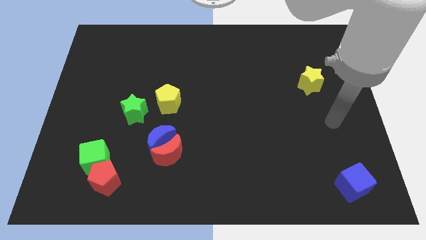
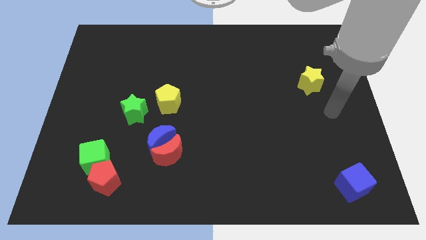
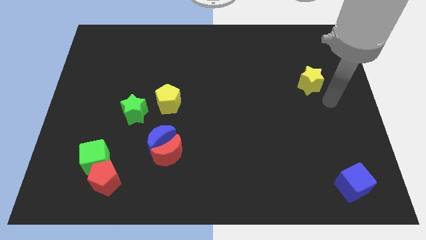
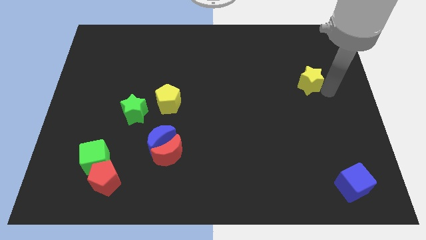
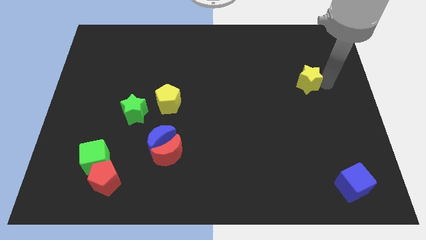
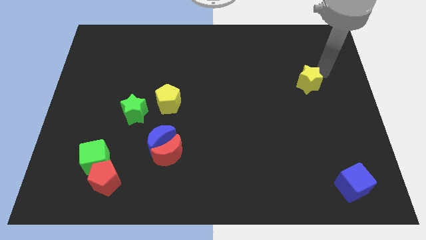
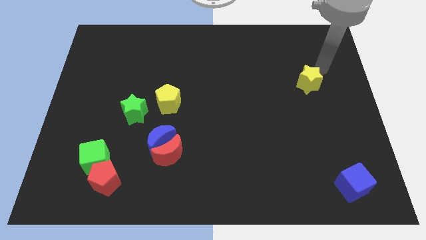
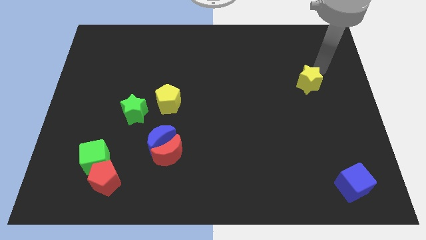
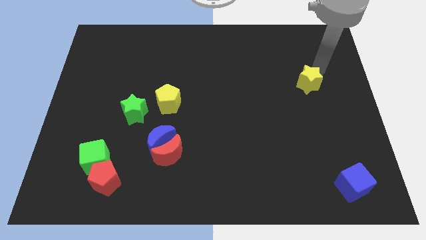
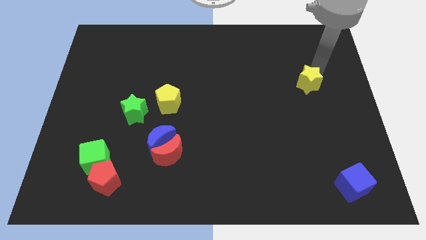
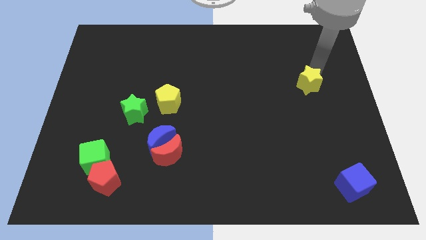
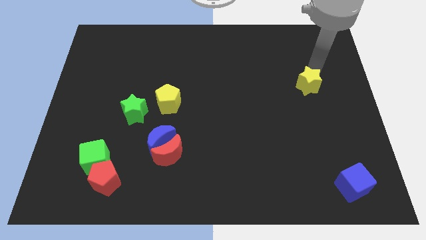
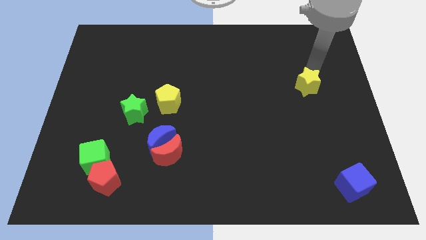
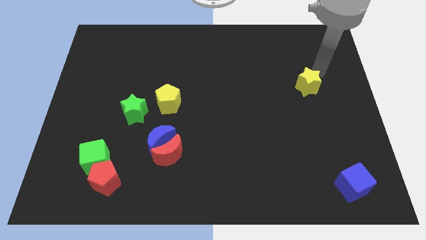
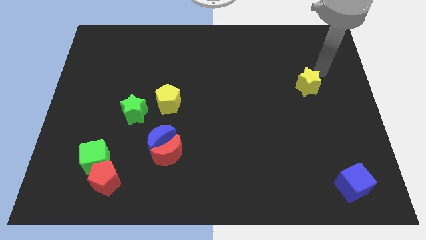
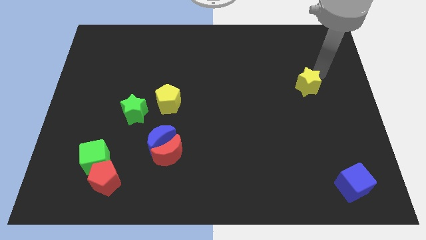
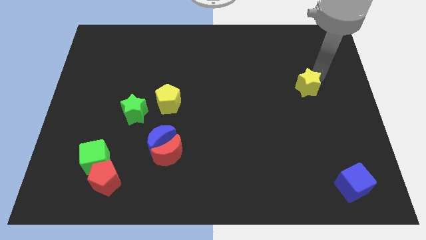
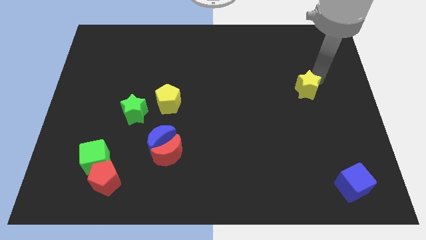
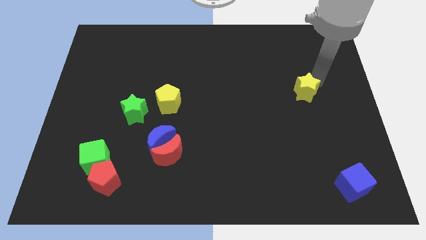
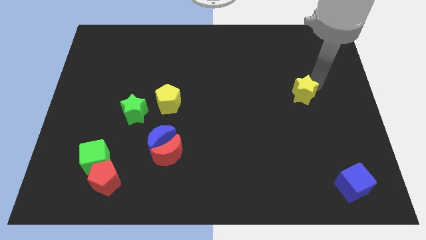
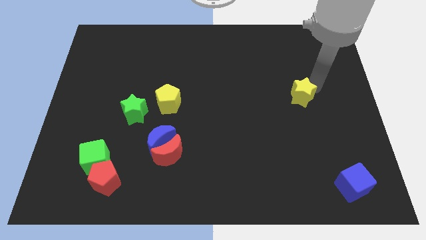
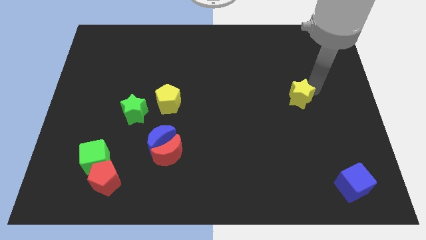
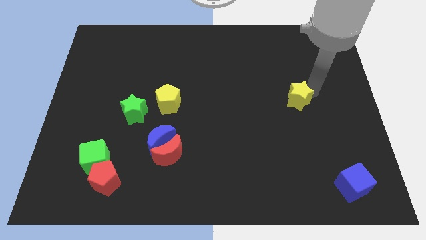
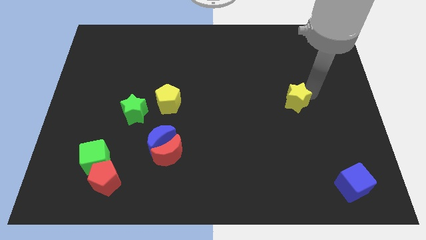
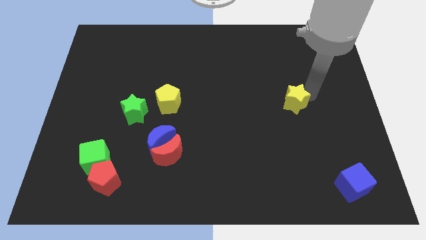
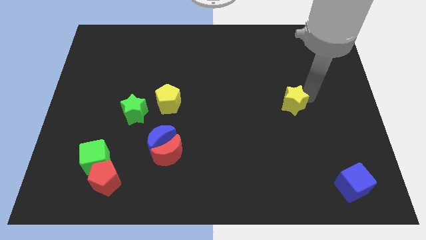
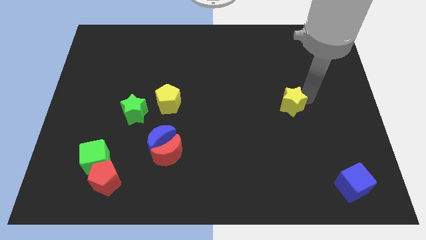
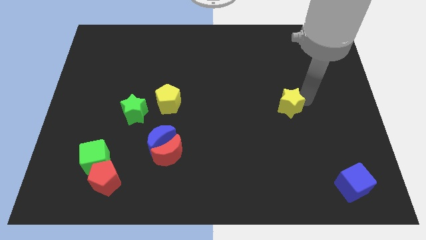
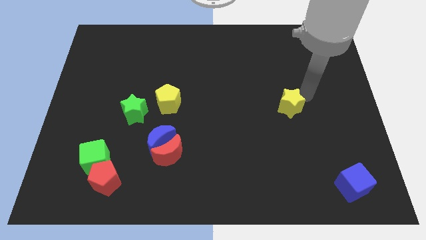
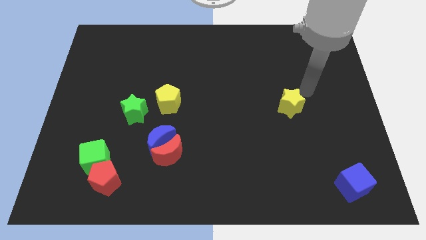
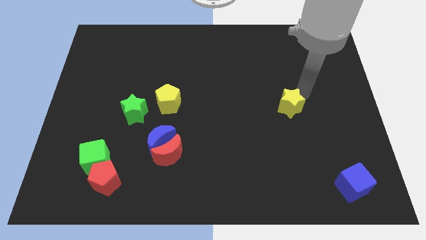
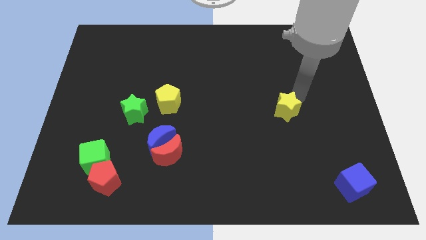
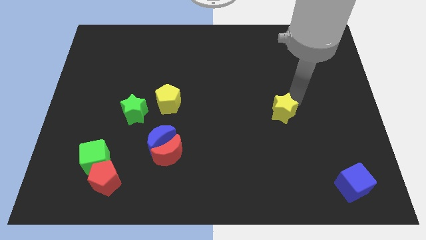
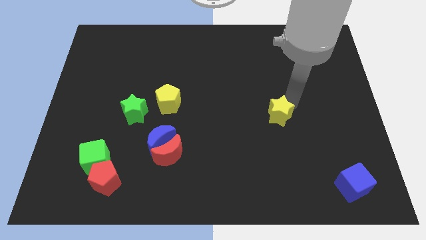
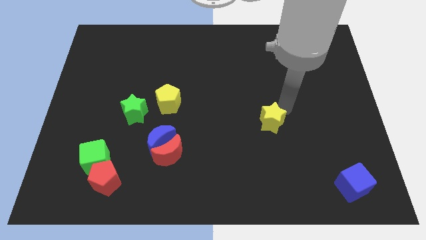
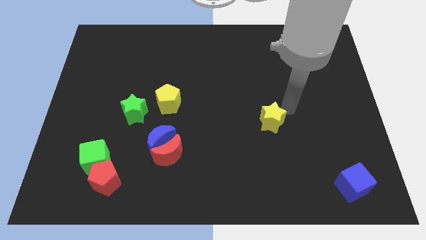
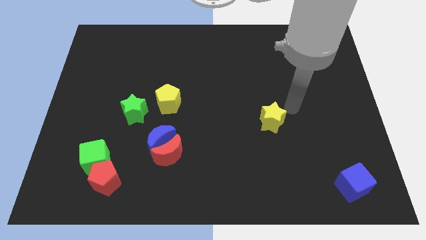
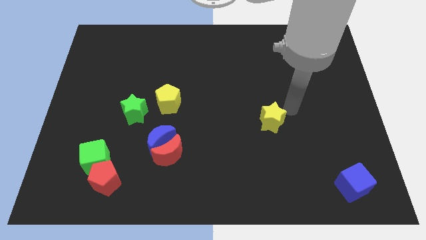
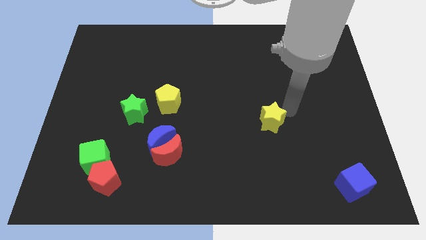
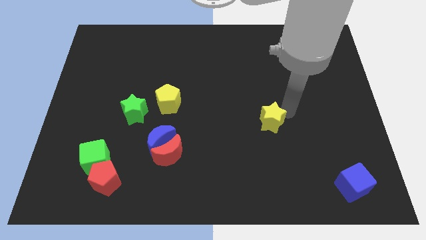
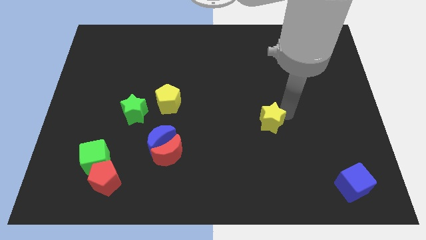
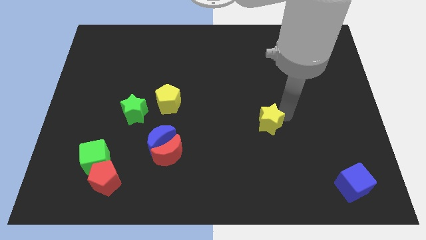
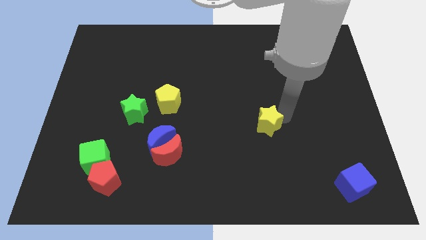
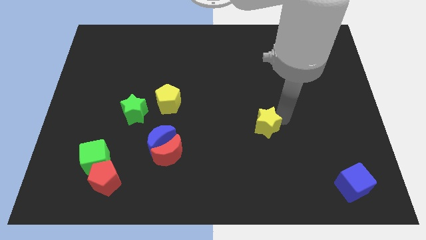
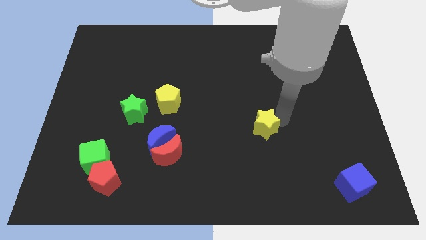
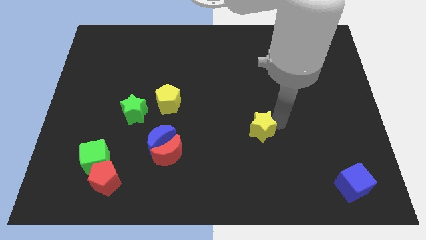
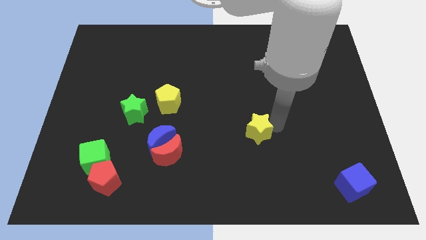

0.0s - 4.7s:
slide the yellow star diagonally downwards and to the left

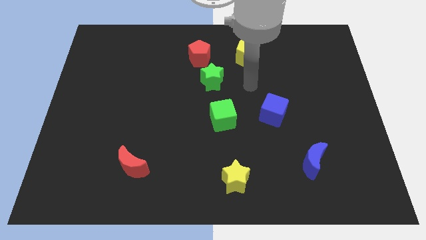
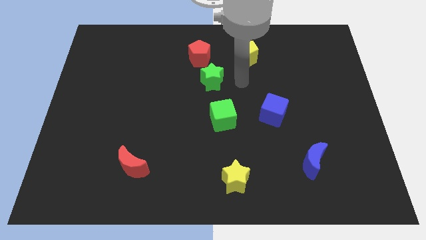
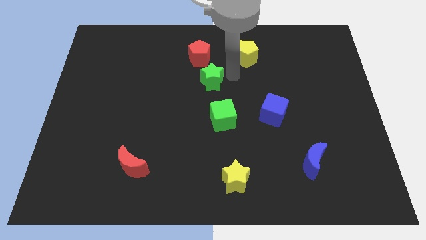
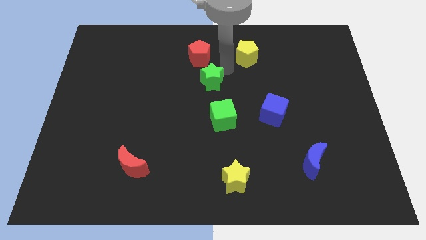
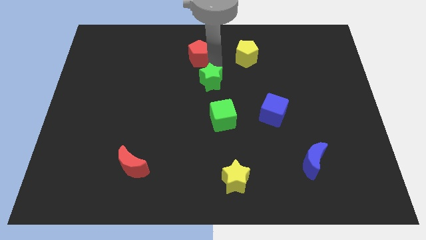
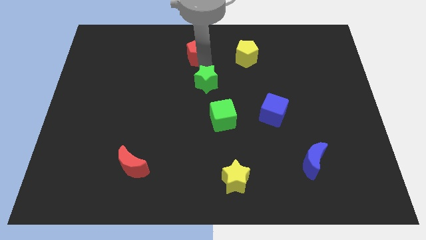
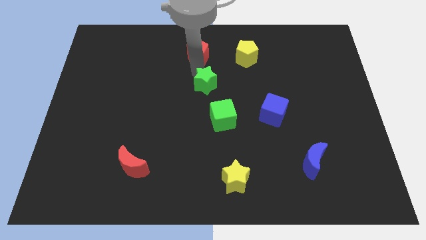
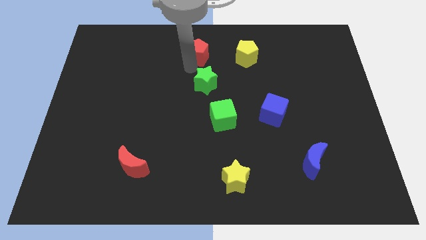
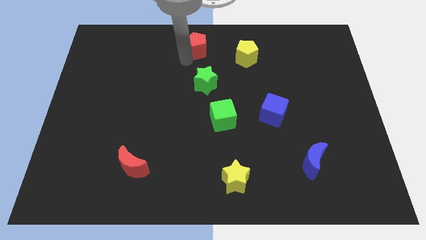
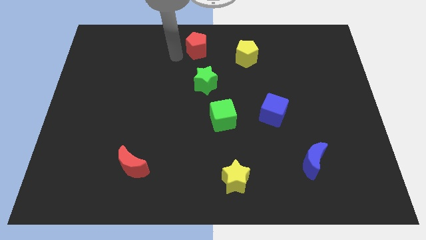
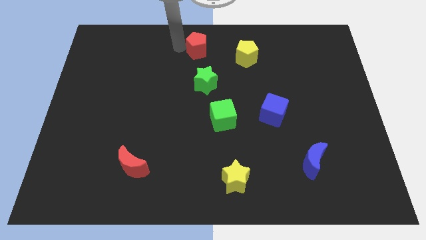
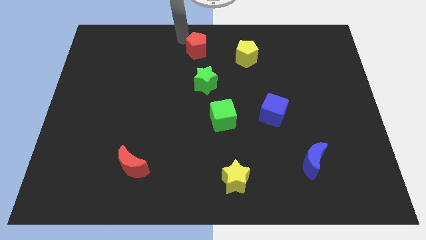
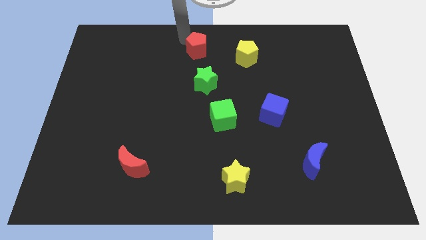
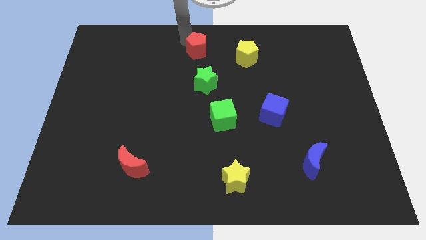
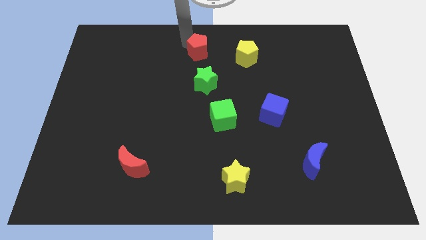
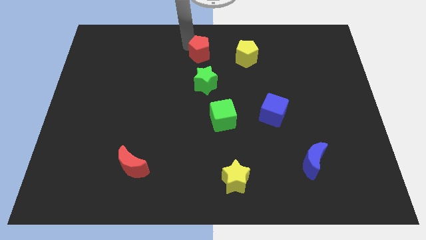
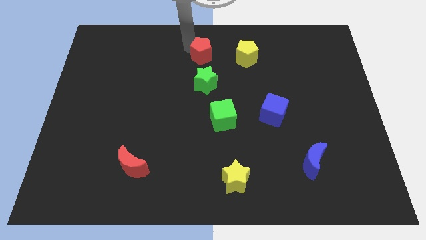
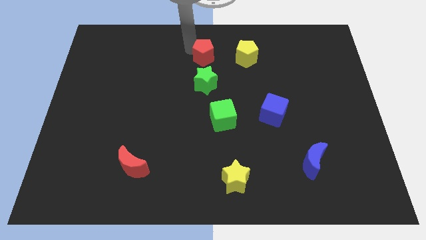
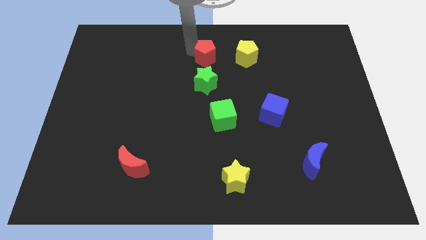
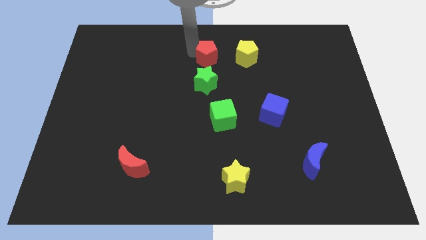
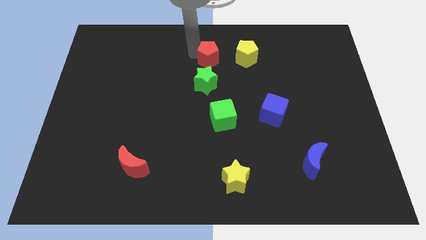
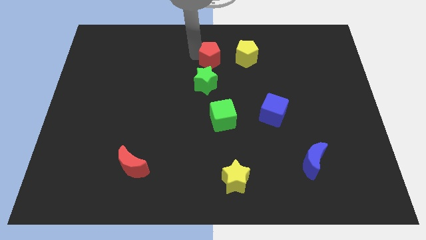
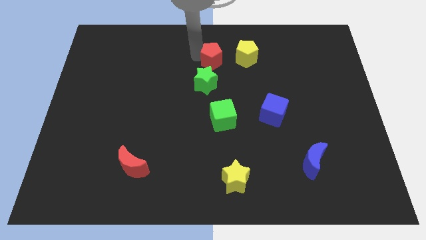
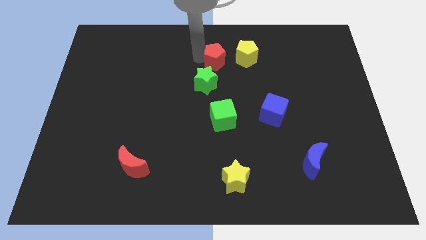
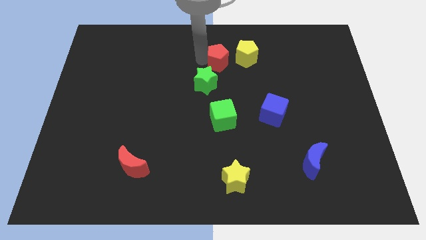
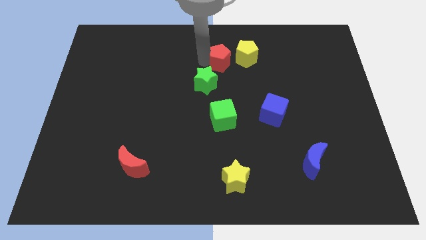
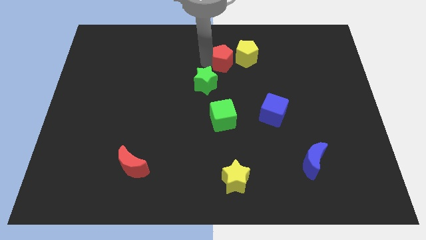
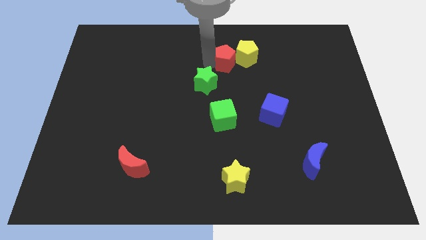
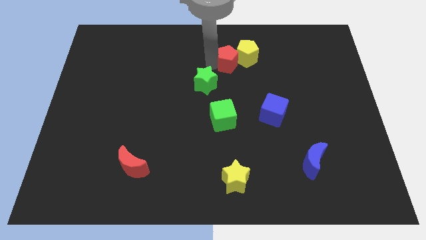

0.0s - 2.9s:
push the red pentagon right a bit

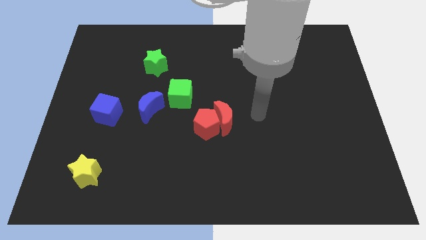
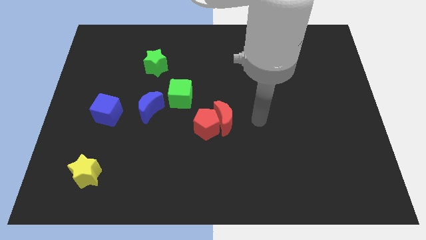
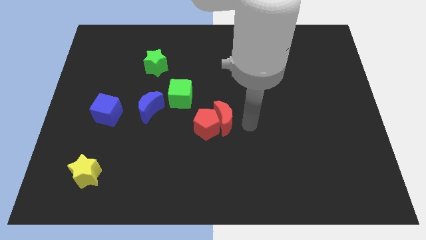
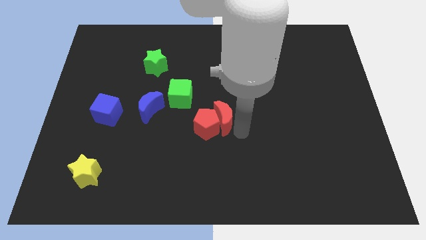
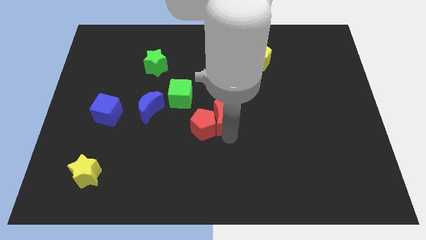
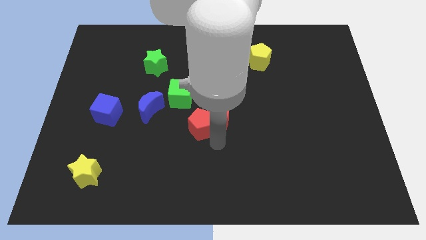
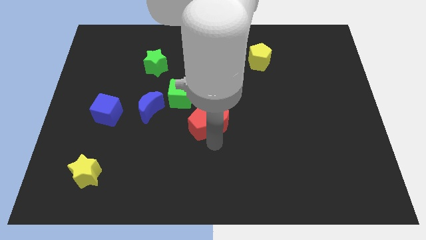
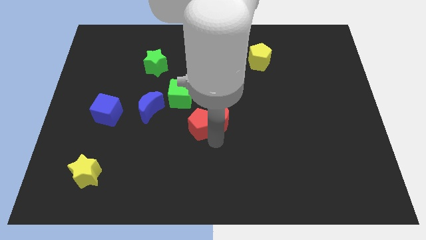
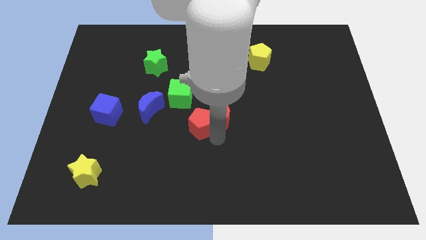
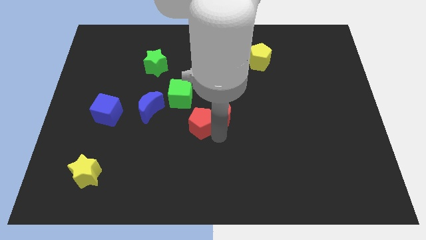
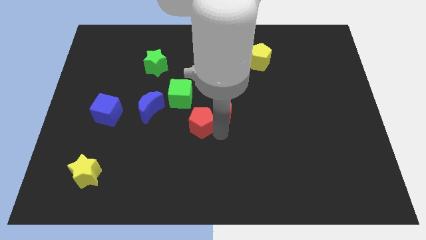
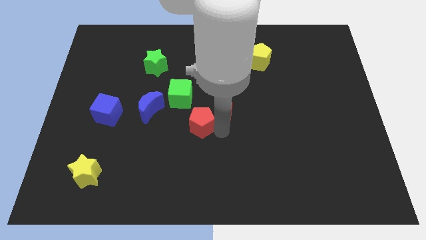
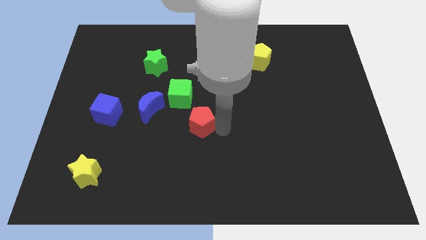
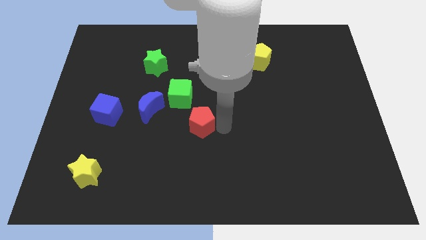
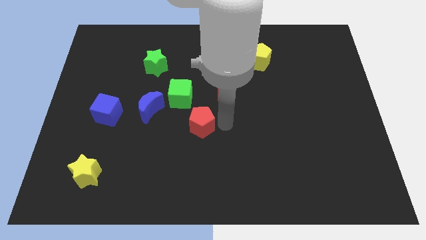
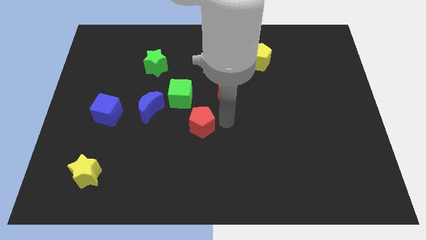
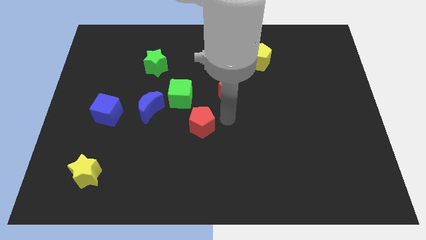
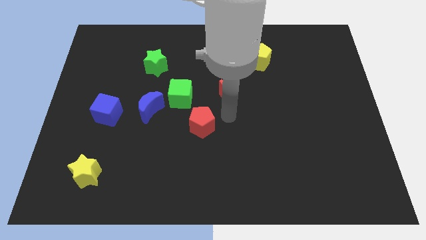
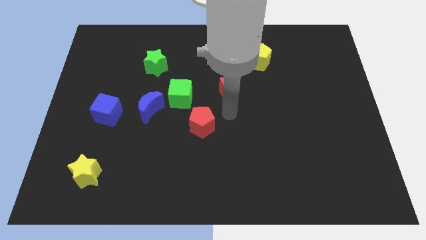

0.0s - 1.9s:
move the red moon up somewhat
